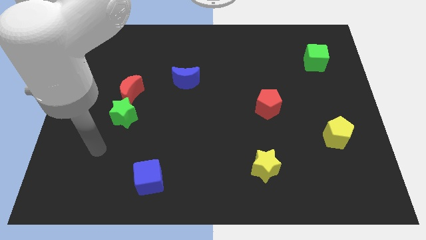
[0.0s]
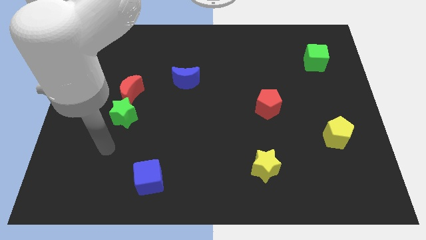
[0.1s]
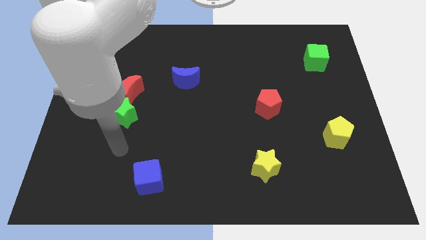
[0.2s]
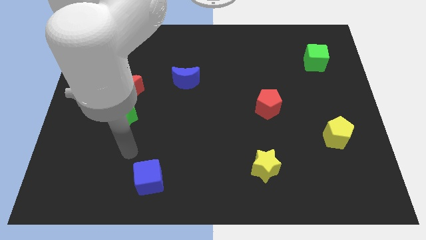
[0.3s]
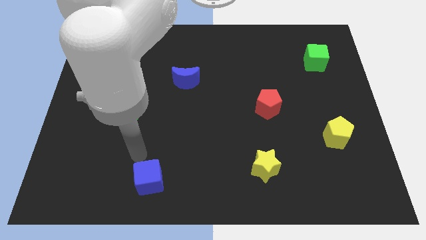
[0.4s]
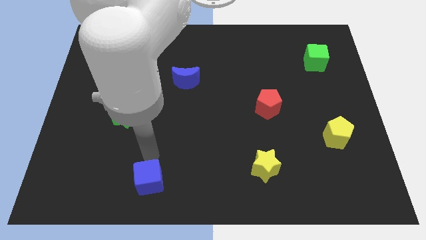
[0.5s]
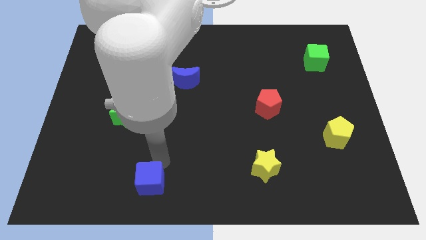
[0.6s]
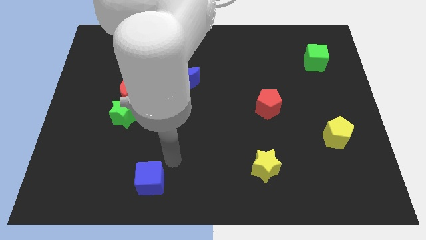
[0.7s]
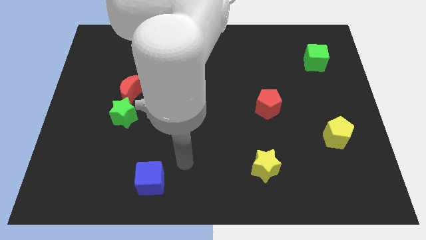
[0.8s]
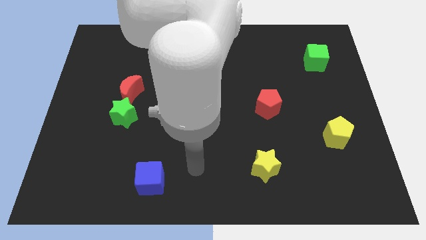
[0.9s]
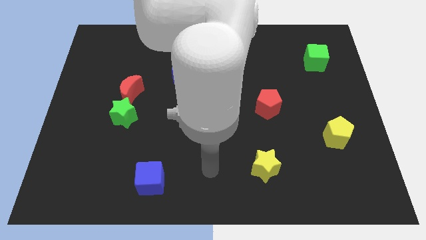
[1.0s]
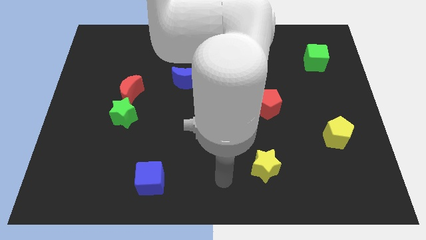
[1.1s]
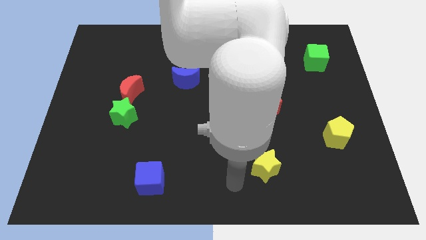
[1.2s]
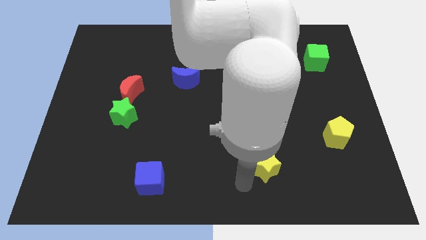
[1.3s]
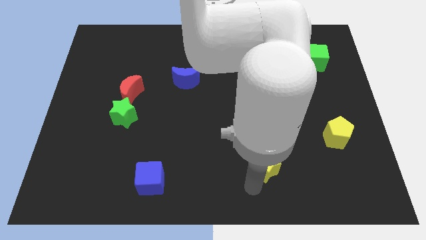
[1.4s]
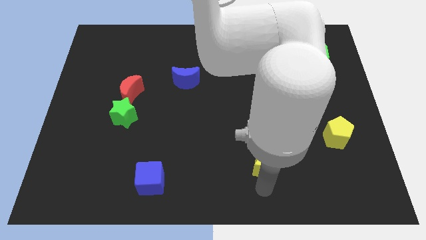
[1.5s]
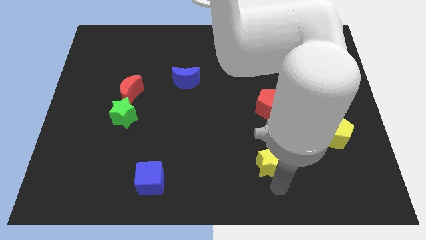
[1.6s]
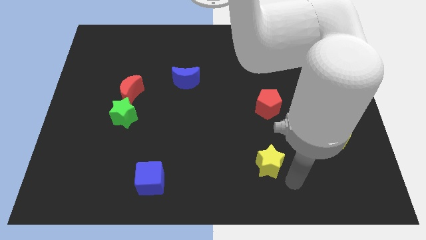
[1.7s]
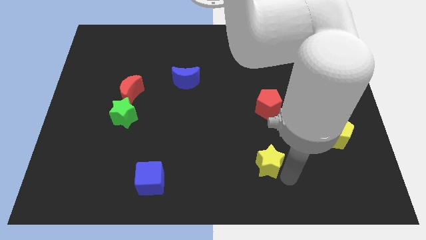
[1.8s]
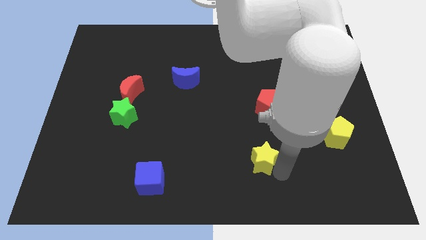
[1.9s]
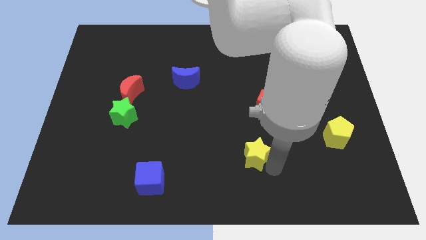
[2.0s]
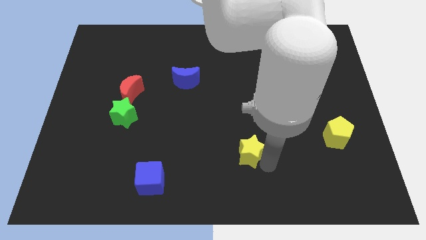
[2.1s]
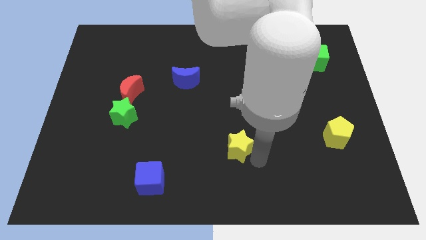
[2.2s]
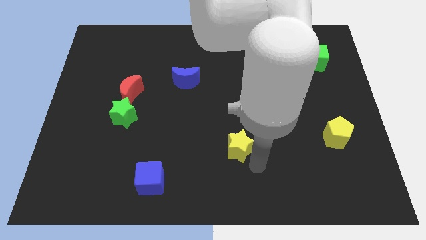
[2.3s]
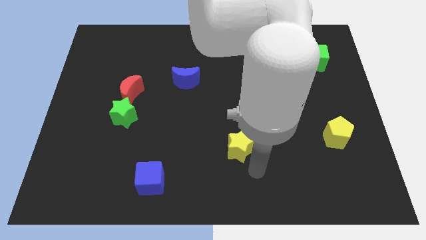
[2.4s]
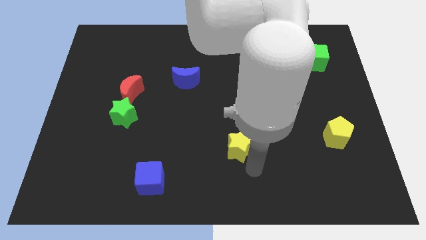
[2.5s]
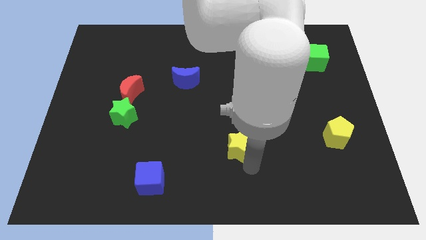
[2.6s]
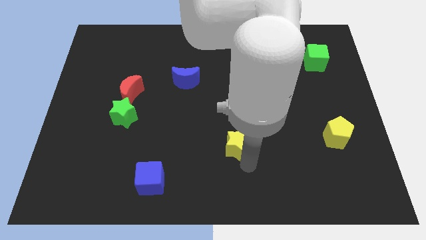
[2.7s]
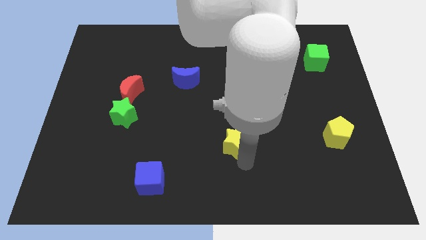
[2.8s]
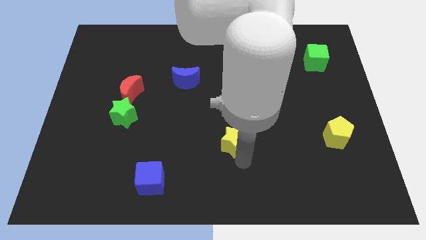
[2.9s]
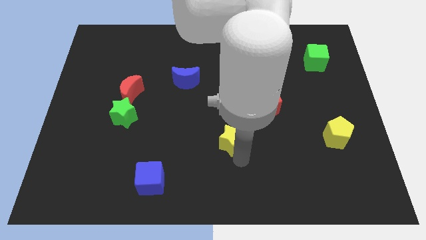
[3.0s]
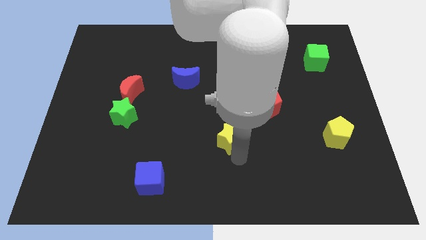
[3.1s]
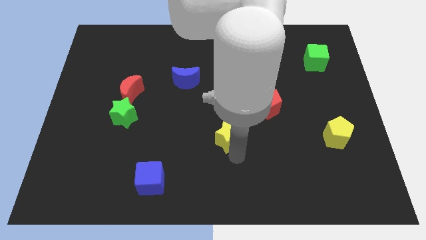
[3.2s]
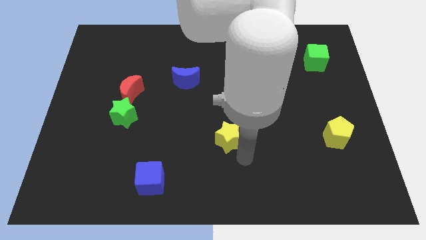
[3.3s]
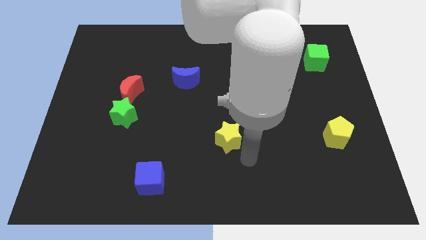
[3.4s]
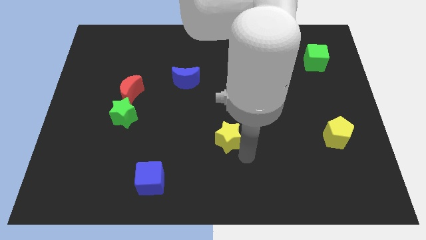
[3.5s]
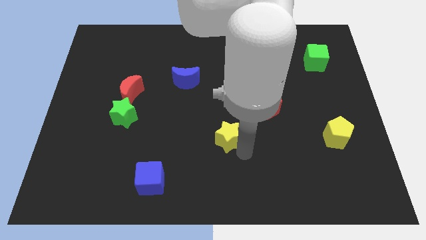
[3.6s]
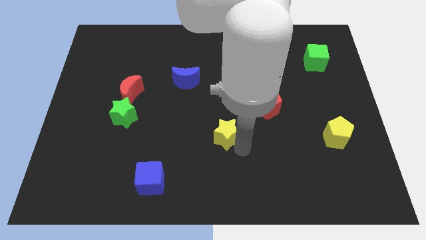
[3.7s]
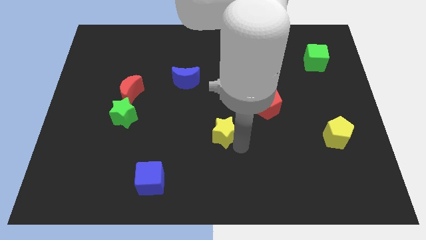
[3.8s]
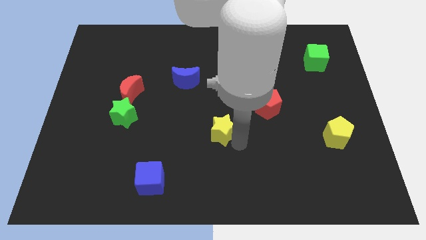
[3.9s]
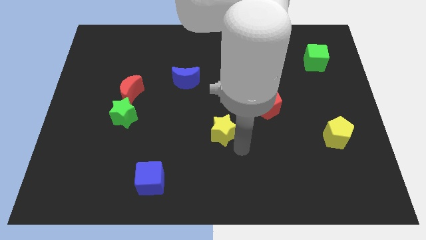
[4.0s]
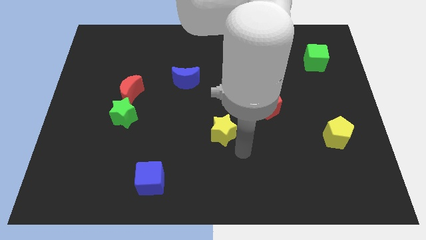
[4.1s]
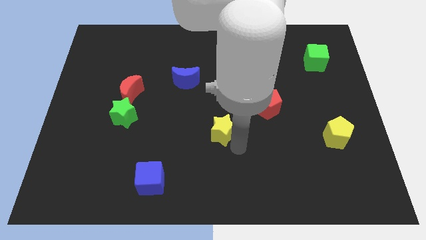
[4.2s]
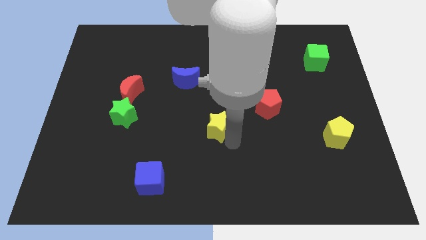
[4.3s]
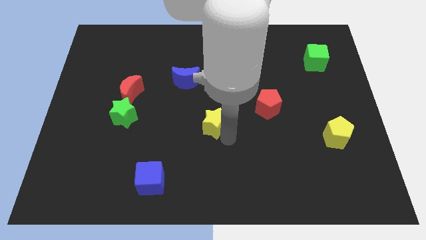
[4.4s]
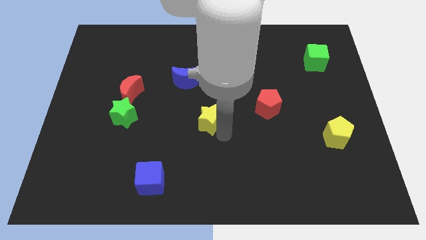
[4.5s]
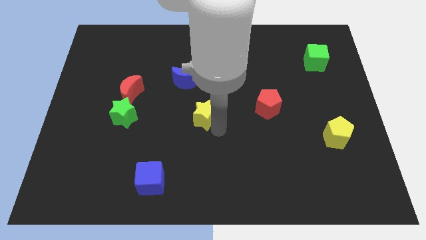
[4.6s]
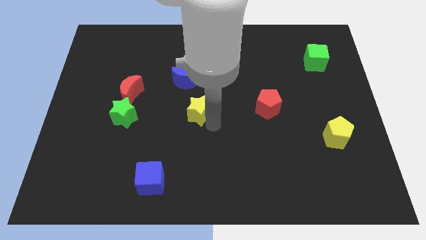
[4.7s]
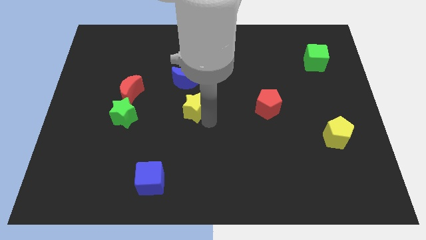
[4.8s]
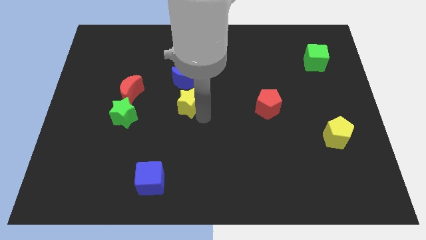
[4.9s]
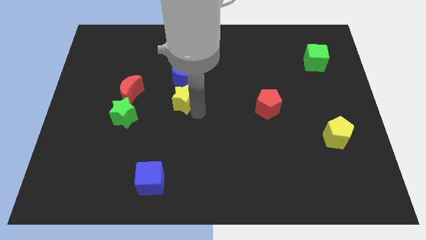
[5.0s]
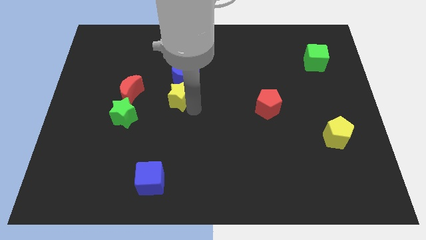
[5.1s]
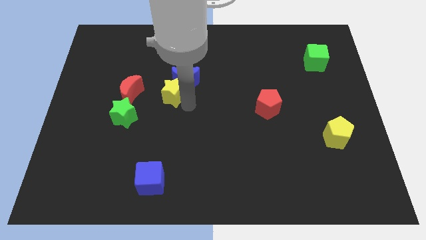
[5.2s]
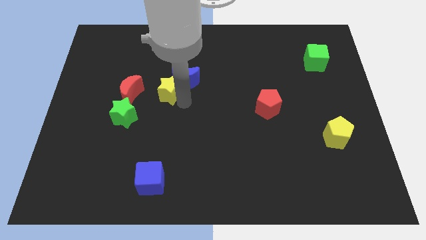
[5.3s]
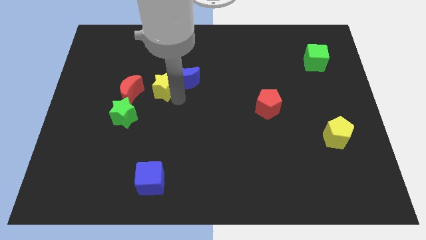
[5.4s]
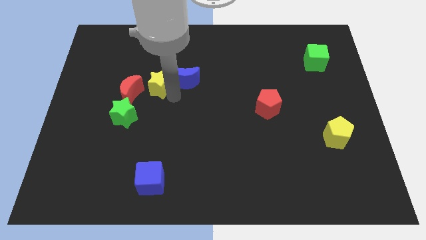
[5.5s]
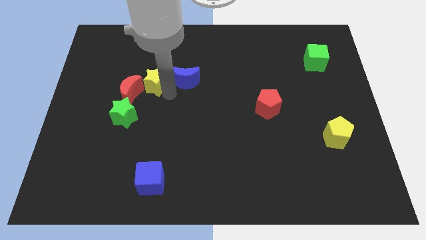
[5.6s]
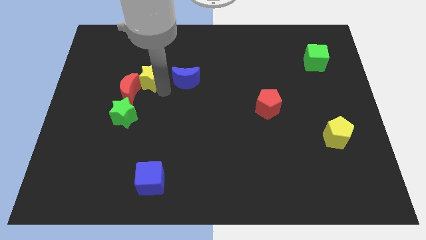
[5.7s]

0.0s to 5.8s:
slide the yellow star to the top of the red moon

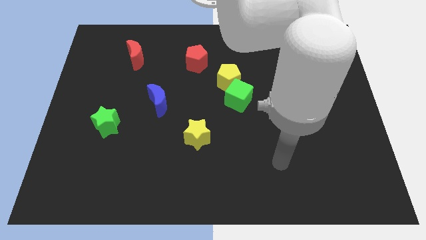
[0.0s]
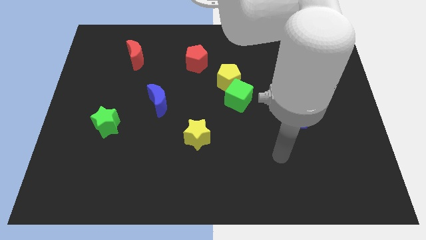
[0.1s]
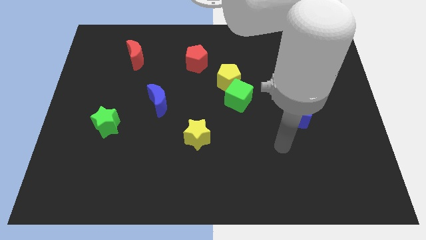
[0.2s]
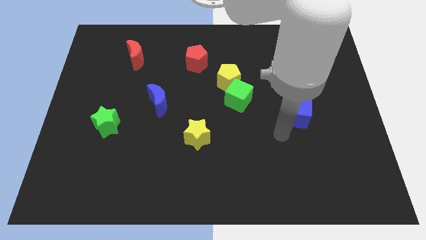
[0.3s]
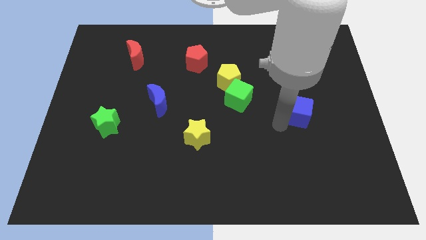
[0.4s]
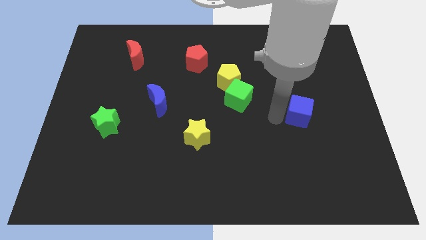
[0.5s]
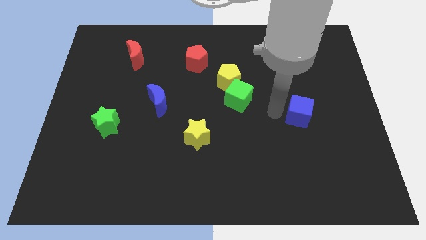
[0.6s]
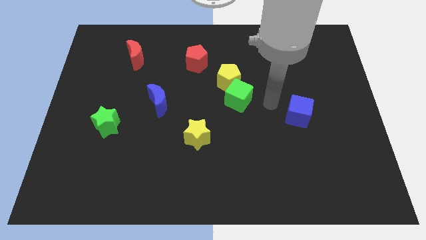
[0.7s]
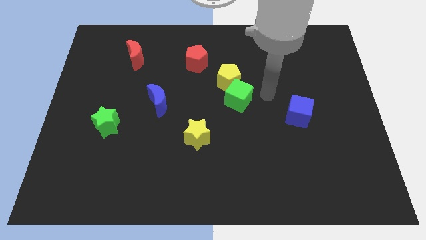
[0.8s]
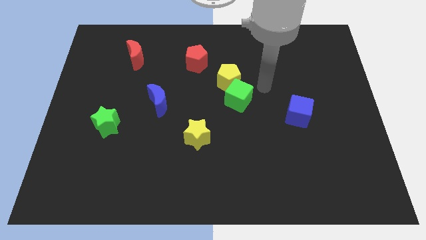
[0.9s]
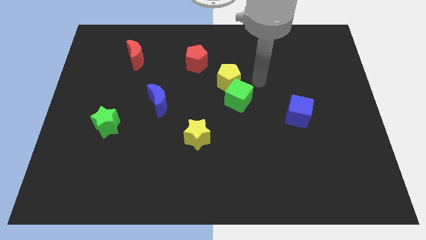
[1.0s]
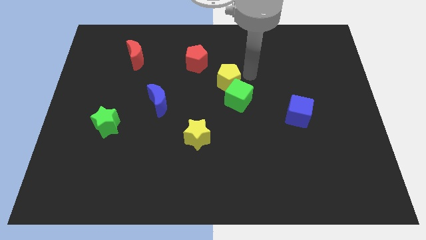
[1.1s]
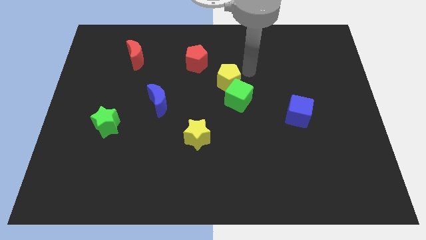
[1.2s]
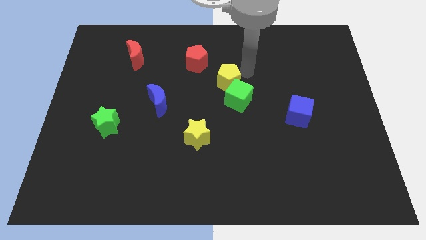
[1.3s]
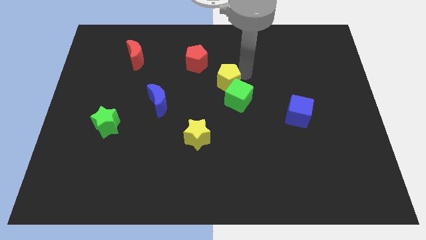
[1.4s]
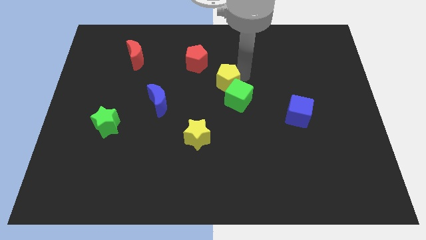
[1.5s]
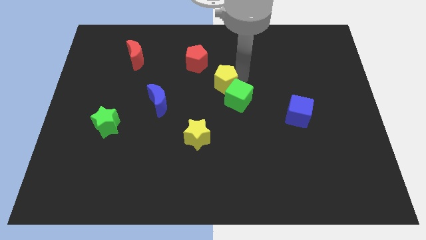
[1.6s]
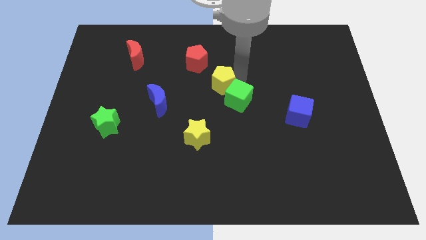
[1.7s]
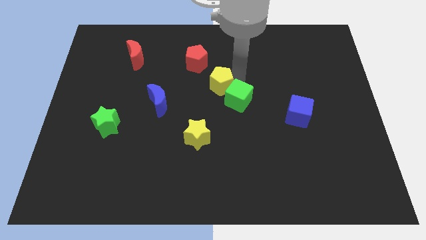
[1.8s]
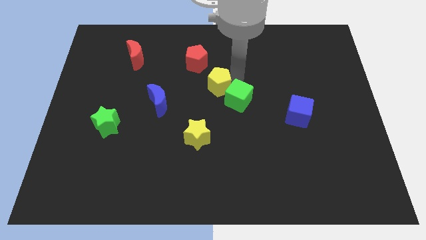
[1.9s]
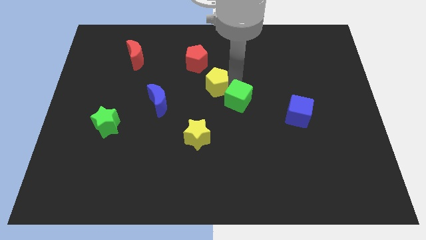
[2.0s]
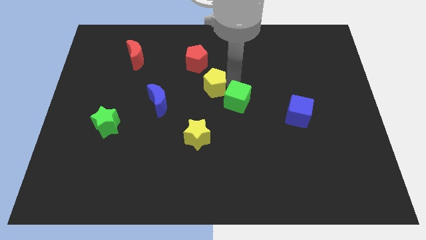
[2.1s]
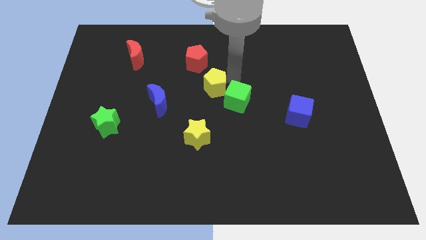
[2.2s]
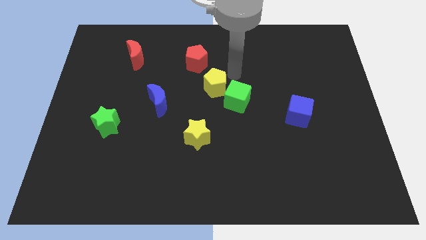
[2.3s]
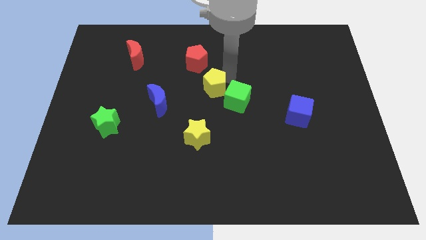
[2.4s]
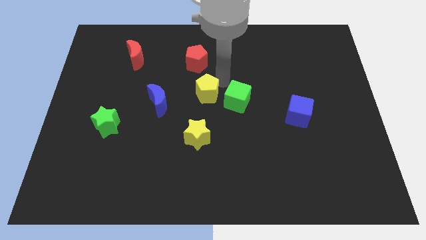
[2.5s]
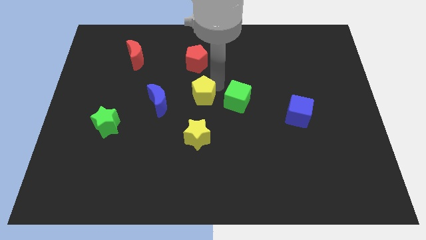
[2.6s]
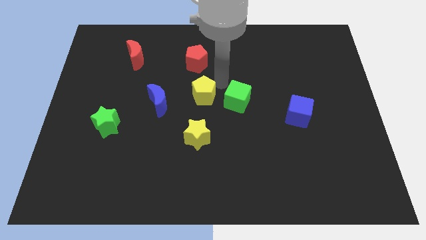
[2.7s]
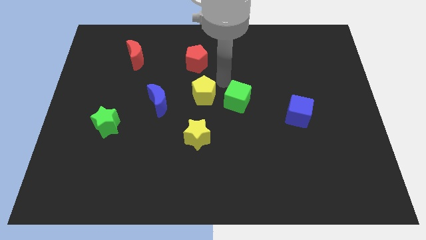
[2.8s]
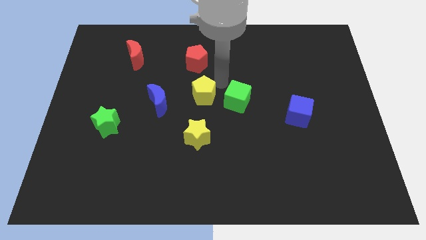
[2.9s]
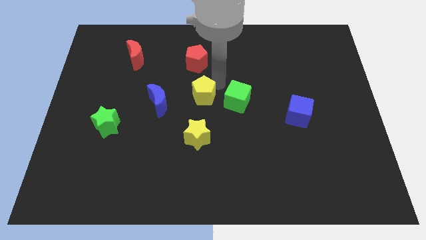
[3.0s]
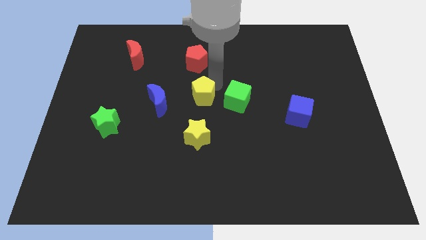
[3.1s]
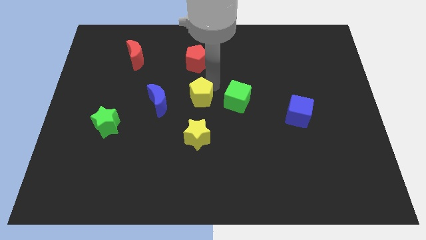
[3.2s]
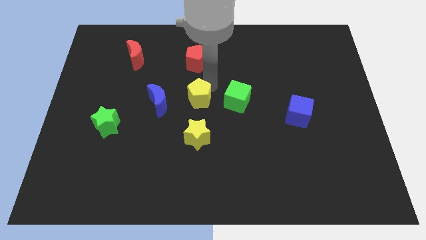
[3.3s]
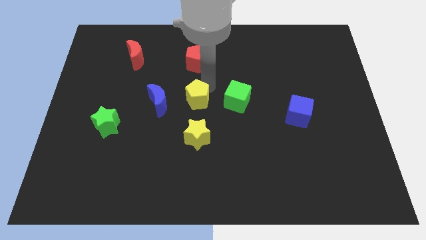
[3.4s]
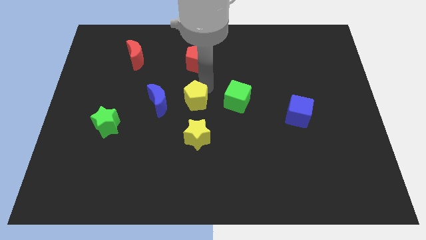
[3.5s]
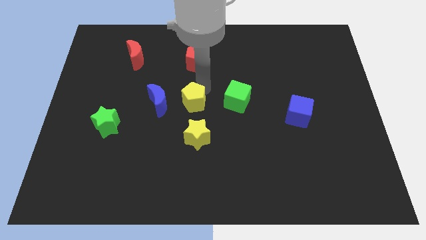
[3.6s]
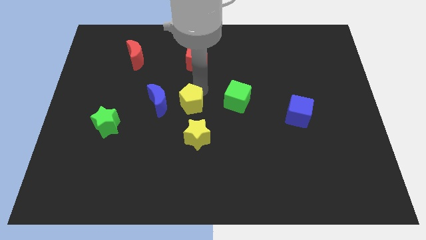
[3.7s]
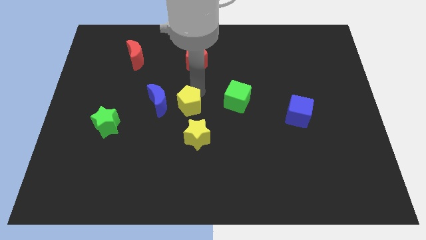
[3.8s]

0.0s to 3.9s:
put the yellow pentagon to the bottom right side of the blue moon
